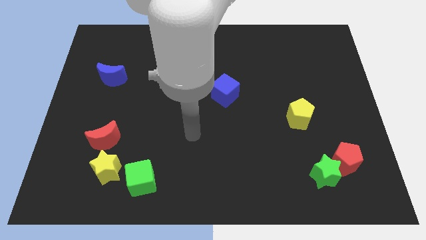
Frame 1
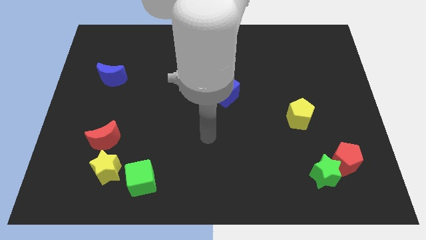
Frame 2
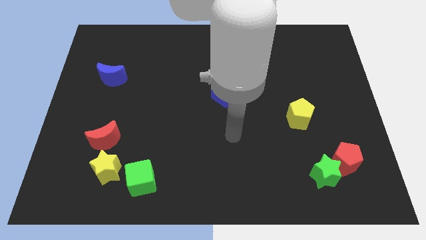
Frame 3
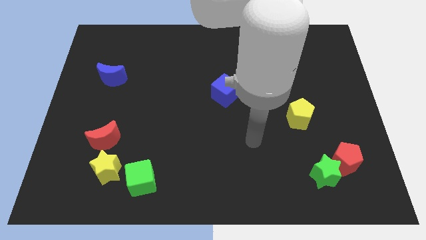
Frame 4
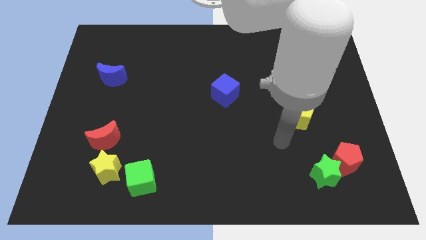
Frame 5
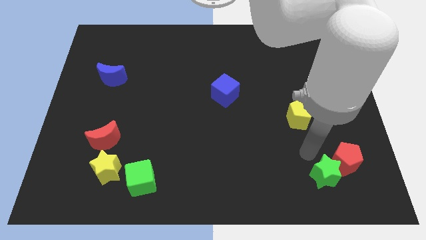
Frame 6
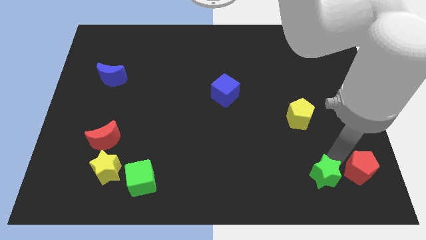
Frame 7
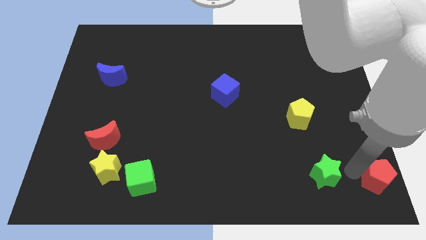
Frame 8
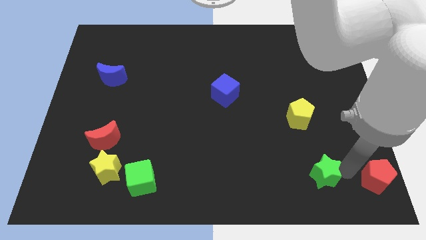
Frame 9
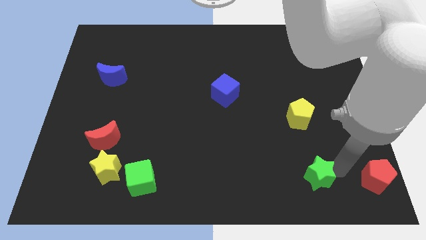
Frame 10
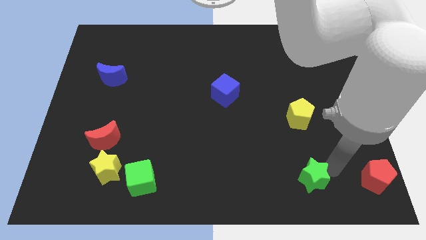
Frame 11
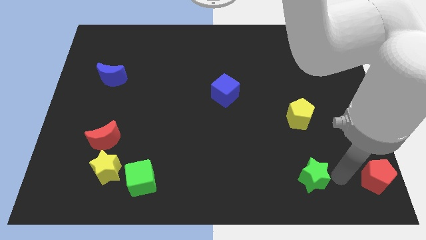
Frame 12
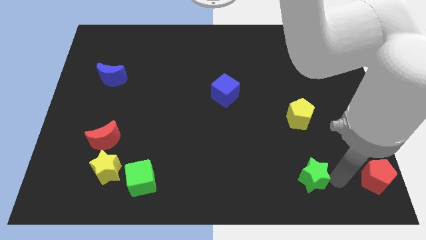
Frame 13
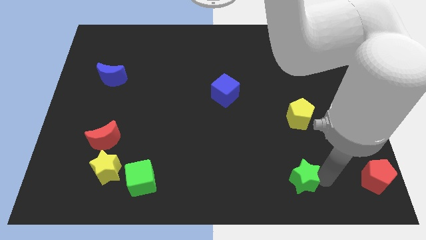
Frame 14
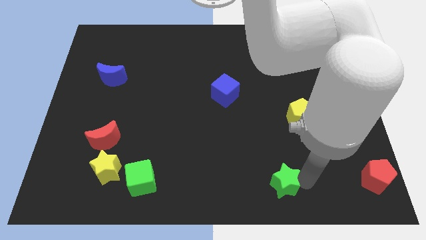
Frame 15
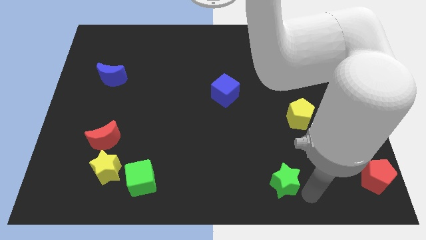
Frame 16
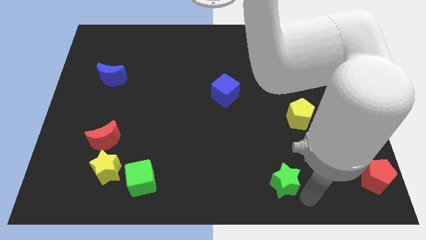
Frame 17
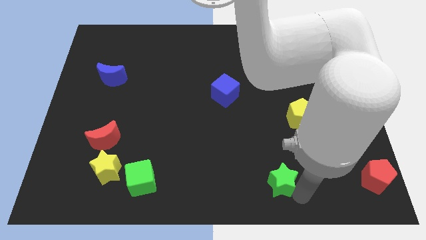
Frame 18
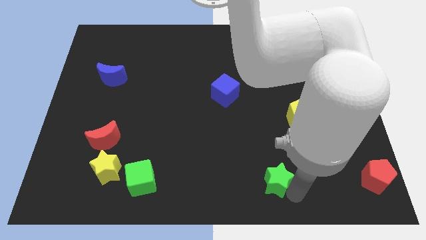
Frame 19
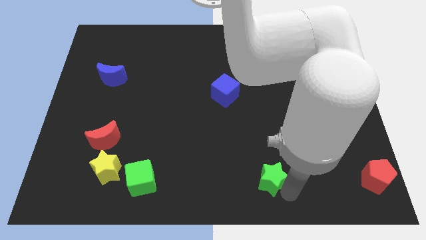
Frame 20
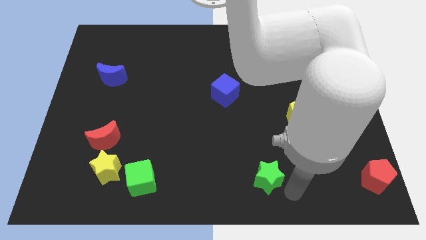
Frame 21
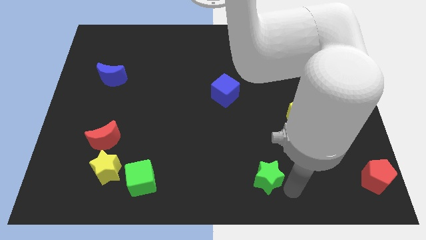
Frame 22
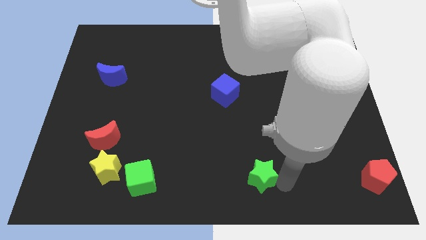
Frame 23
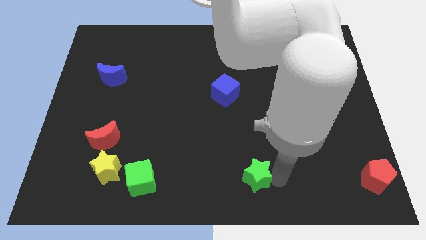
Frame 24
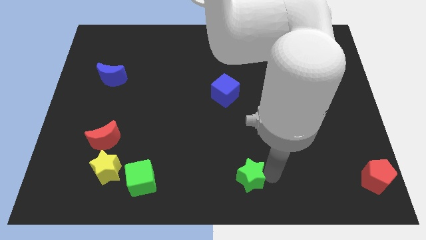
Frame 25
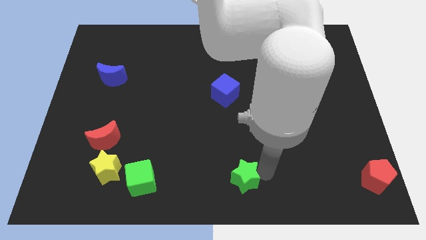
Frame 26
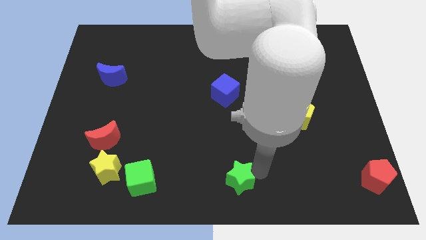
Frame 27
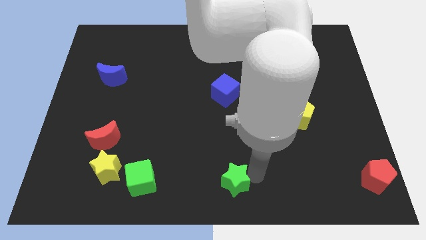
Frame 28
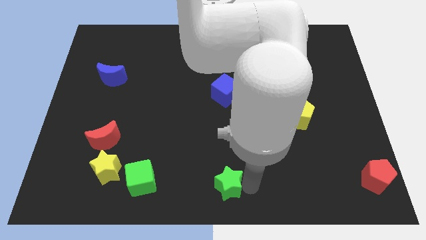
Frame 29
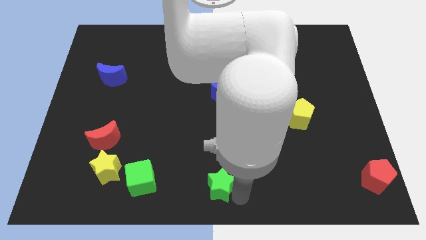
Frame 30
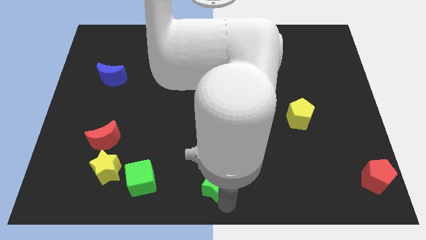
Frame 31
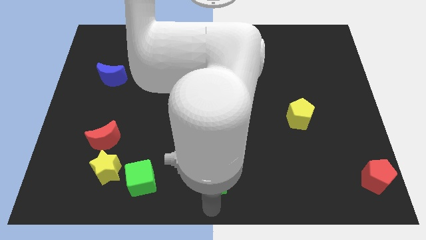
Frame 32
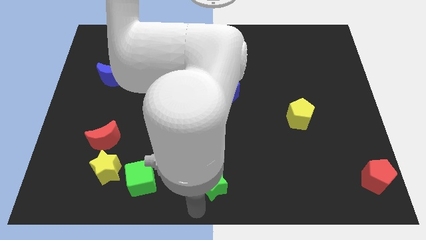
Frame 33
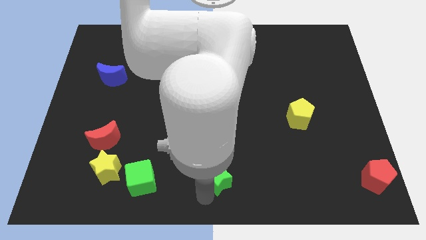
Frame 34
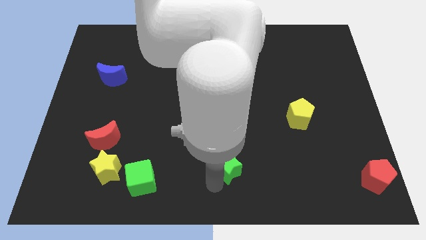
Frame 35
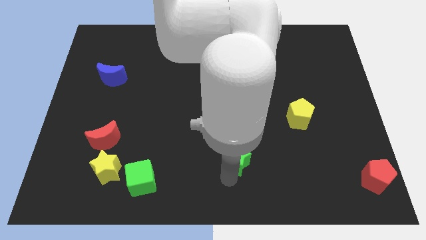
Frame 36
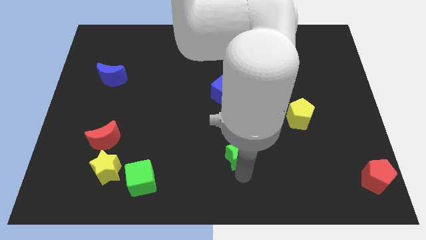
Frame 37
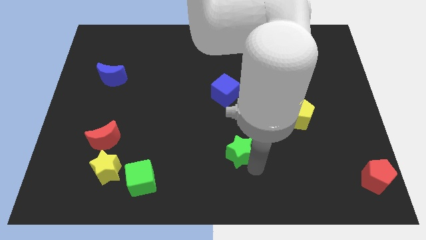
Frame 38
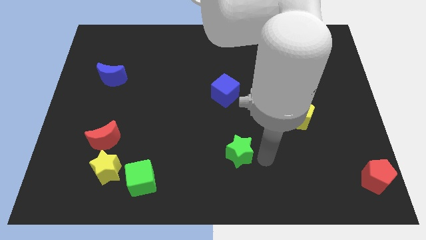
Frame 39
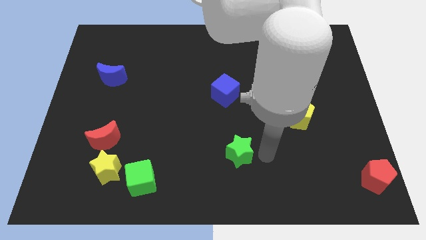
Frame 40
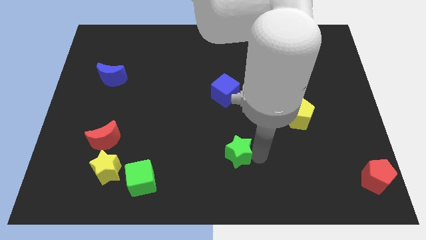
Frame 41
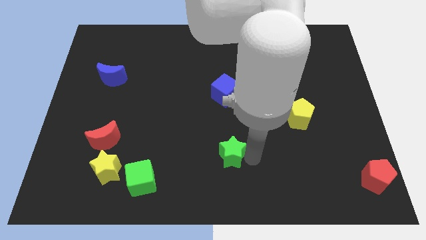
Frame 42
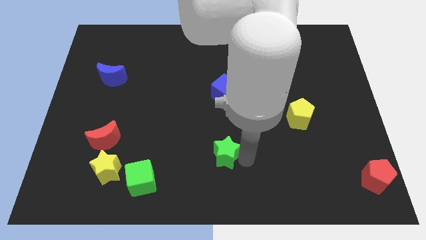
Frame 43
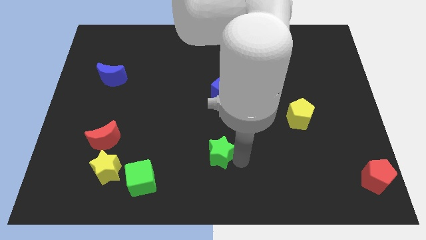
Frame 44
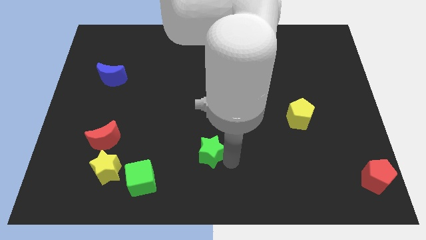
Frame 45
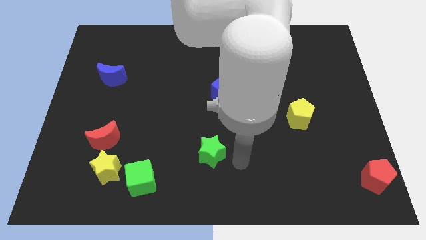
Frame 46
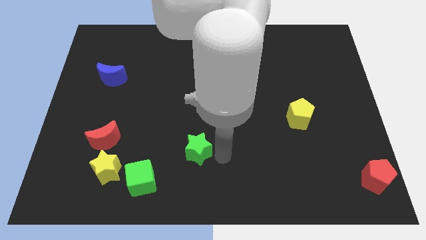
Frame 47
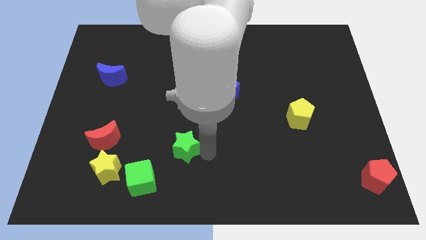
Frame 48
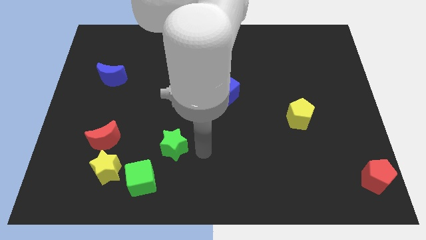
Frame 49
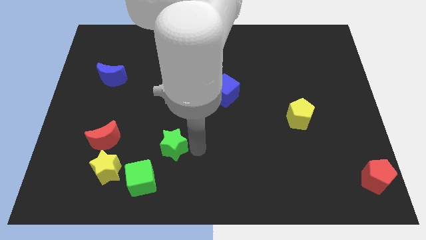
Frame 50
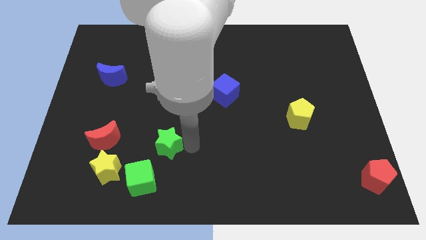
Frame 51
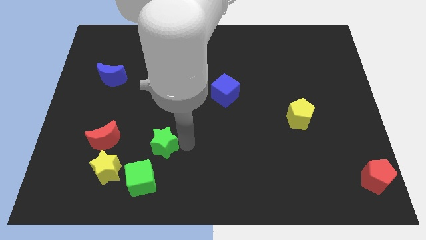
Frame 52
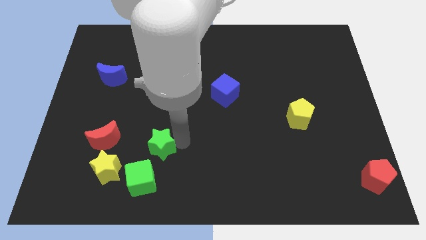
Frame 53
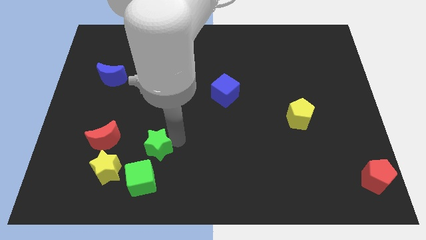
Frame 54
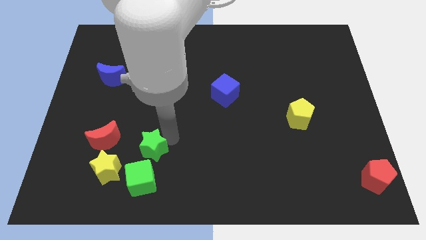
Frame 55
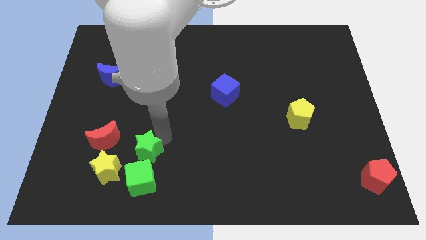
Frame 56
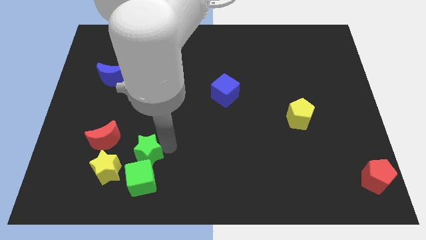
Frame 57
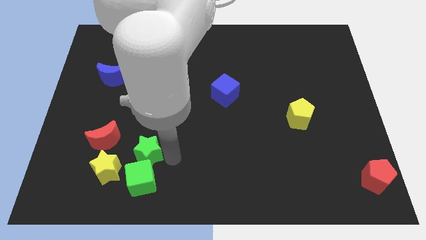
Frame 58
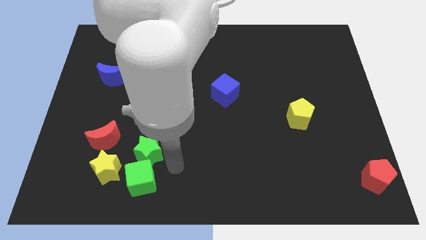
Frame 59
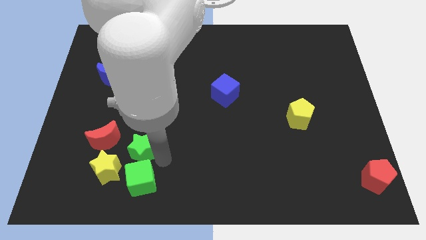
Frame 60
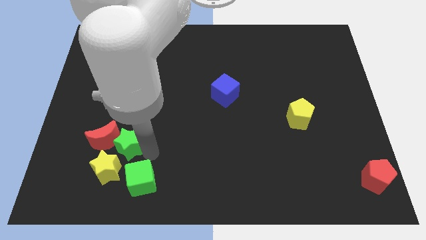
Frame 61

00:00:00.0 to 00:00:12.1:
push the green star towards the red moon

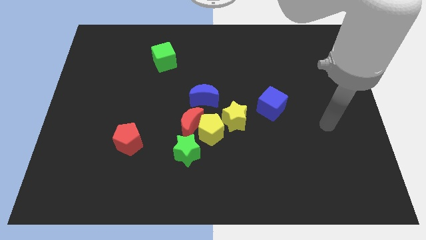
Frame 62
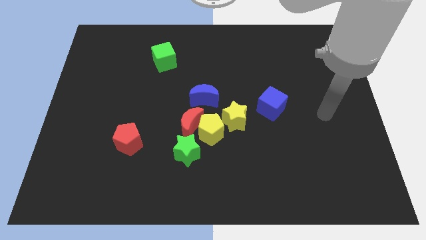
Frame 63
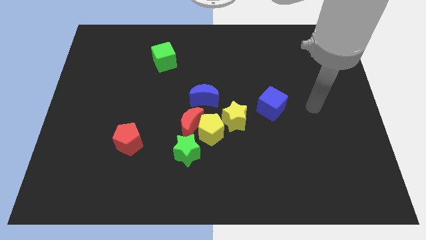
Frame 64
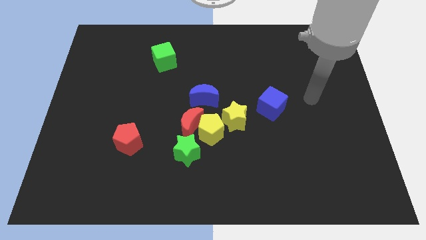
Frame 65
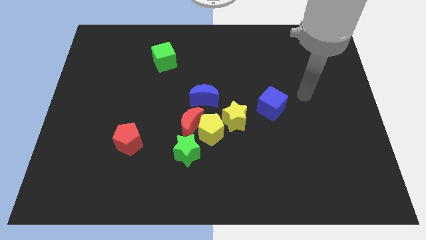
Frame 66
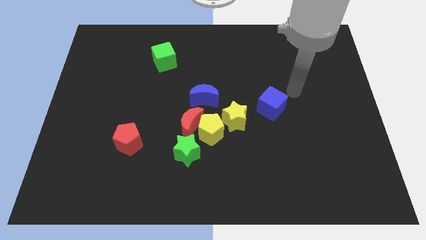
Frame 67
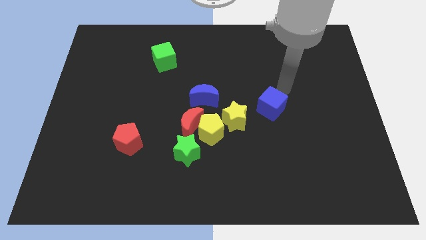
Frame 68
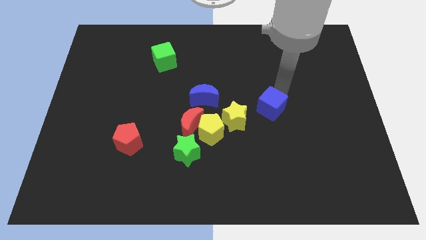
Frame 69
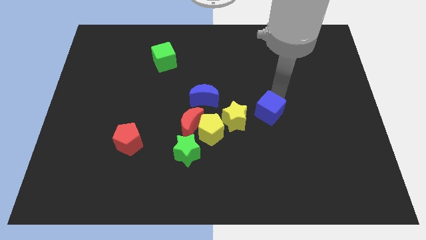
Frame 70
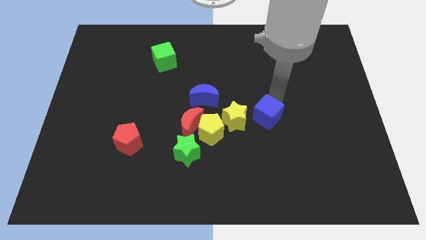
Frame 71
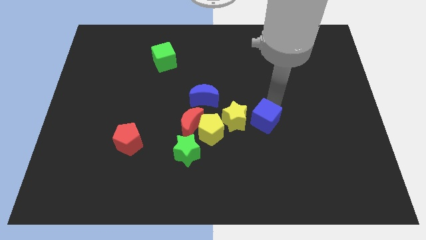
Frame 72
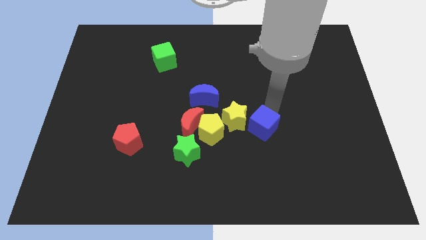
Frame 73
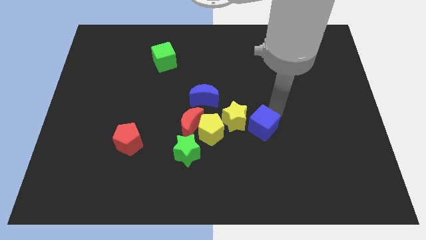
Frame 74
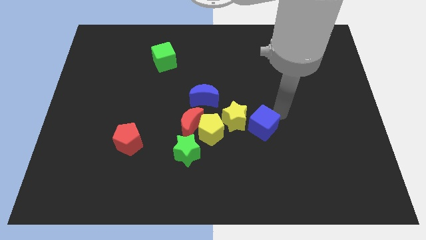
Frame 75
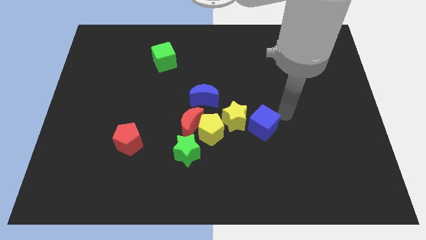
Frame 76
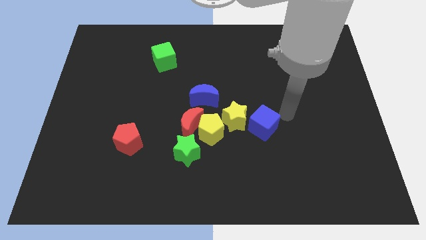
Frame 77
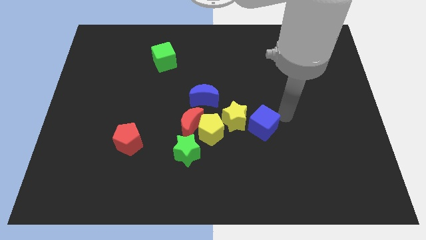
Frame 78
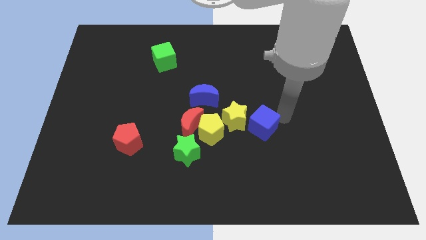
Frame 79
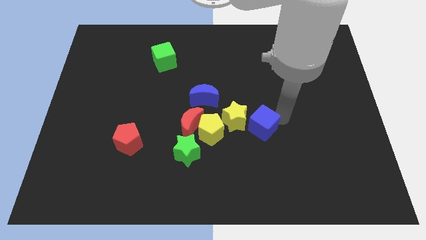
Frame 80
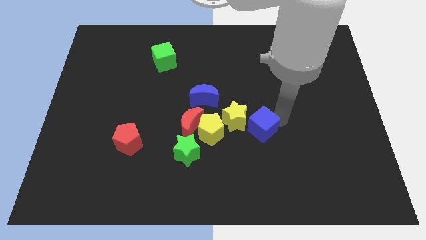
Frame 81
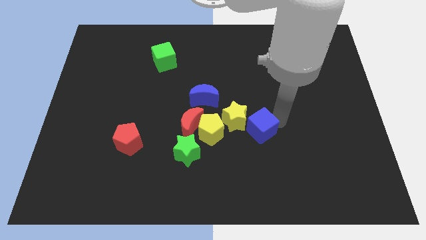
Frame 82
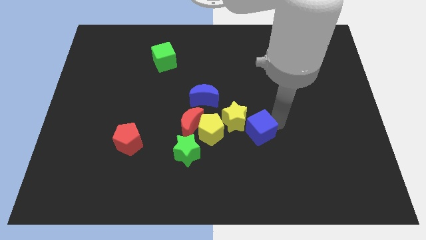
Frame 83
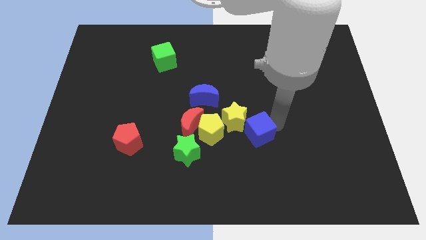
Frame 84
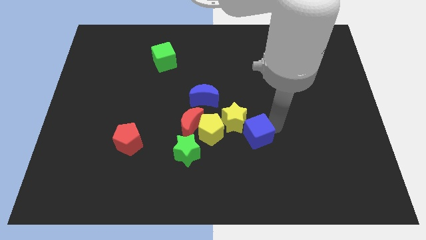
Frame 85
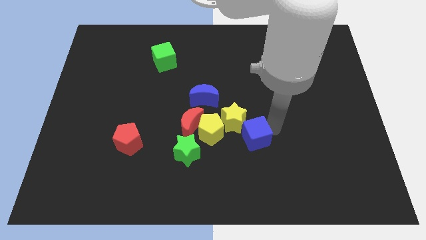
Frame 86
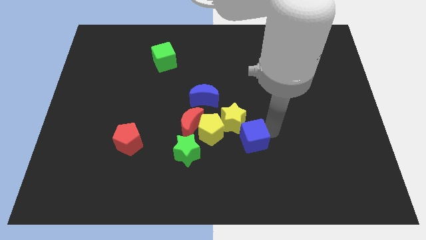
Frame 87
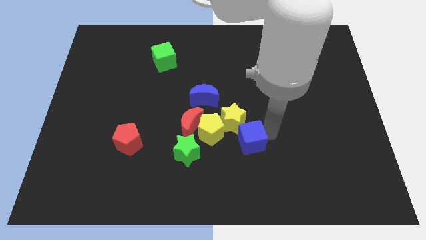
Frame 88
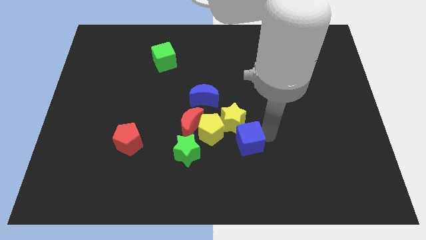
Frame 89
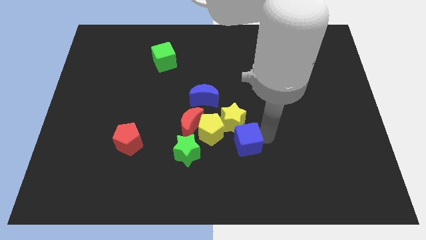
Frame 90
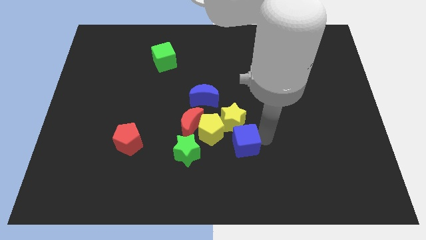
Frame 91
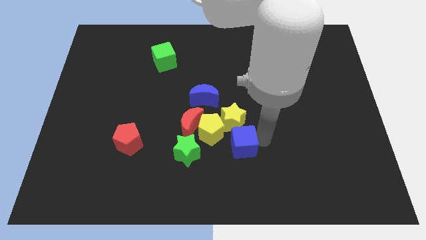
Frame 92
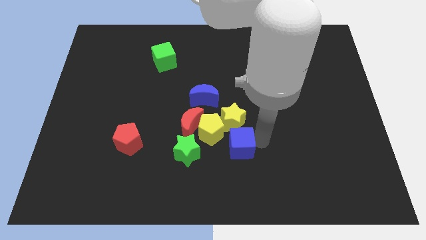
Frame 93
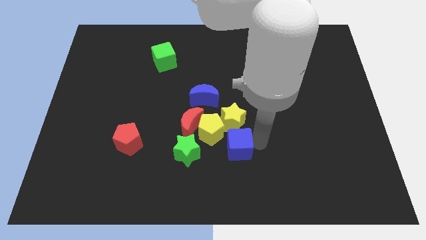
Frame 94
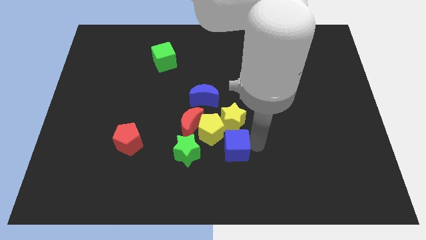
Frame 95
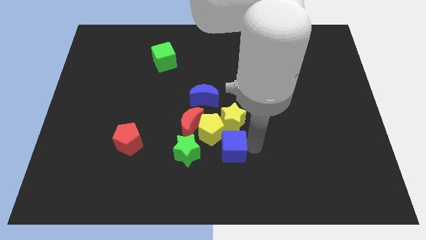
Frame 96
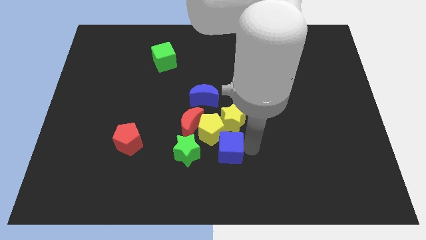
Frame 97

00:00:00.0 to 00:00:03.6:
put the blue cube next to the yellow pentagon
